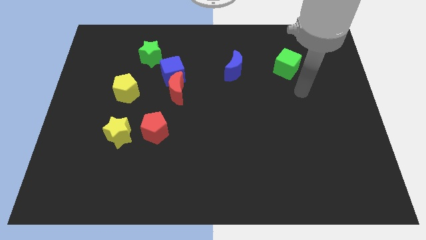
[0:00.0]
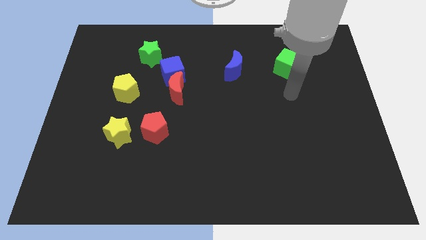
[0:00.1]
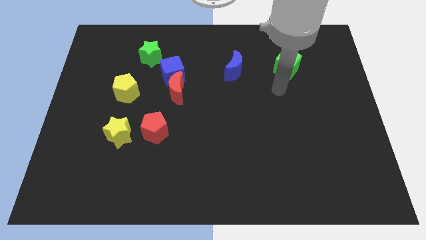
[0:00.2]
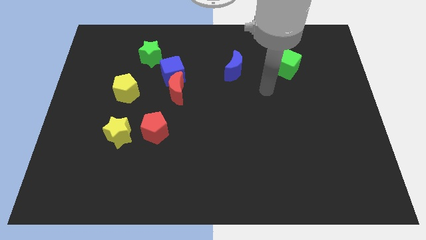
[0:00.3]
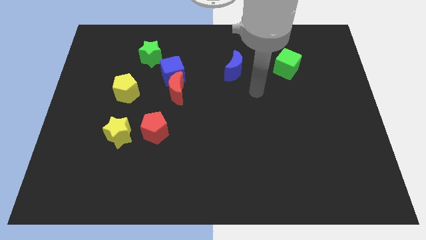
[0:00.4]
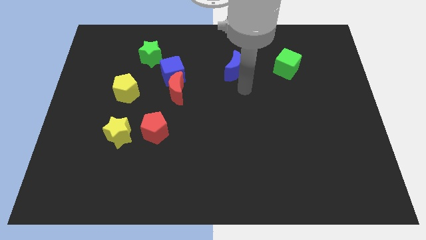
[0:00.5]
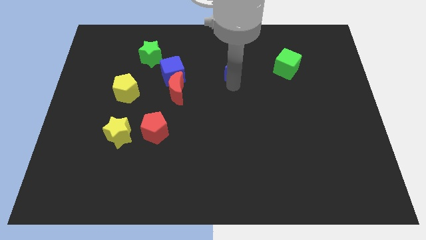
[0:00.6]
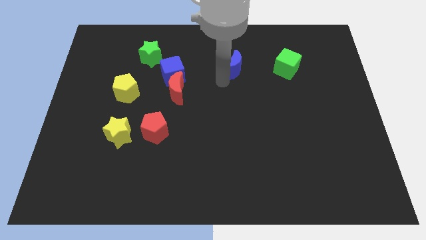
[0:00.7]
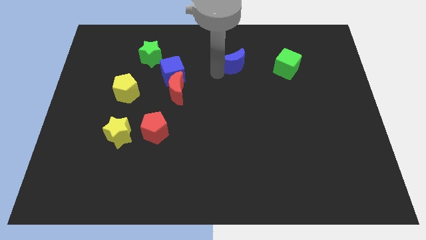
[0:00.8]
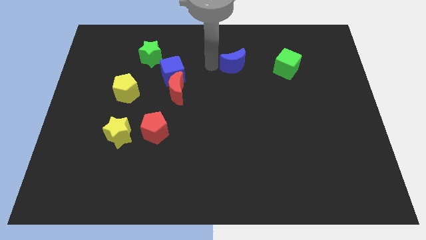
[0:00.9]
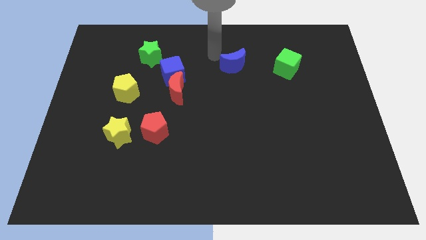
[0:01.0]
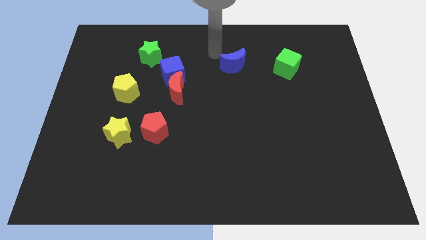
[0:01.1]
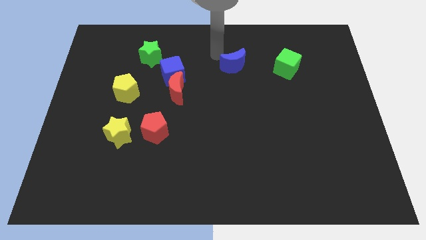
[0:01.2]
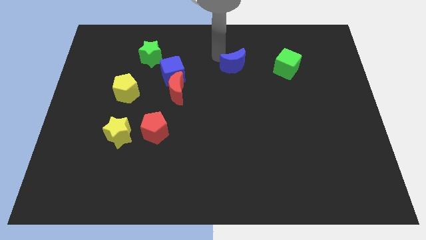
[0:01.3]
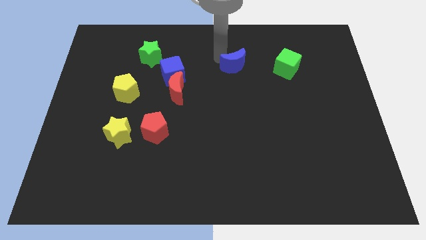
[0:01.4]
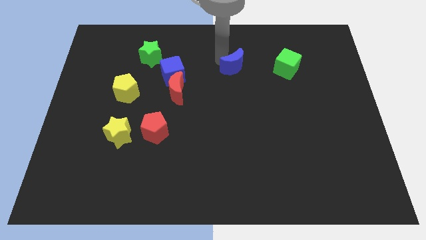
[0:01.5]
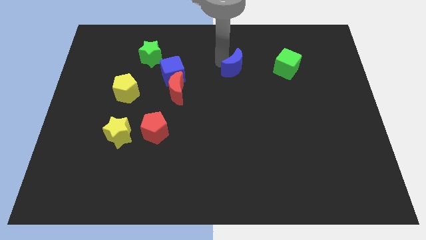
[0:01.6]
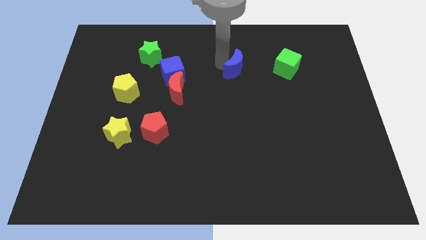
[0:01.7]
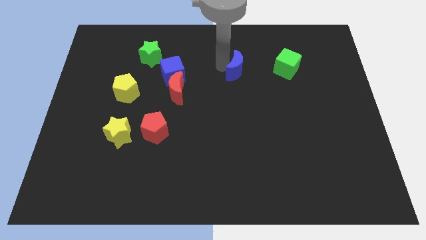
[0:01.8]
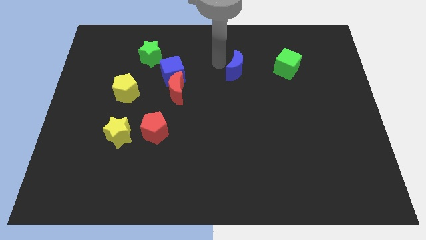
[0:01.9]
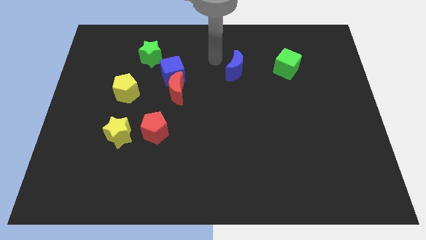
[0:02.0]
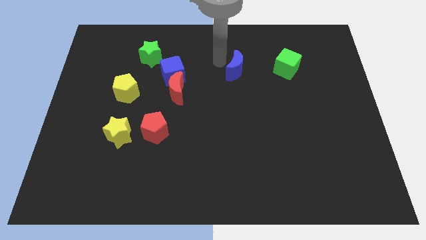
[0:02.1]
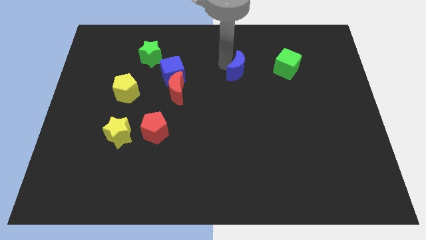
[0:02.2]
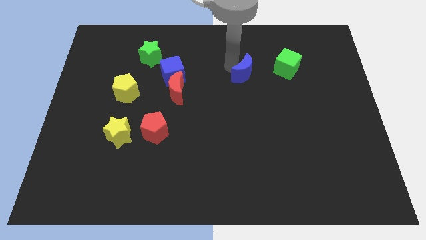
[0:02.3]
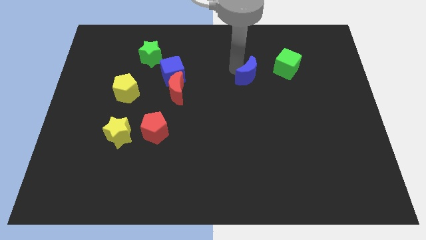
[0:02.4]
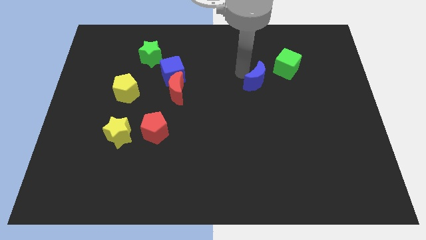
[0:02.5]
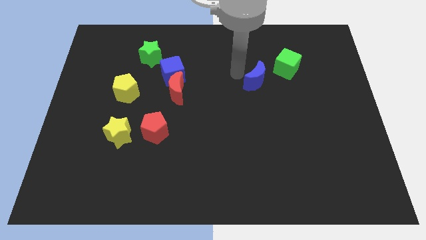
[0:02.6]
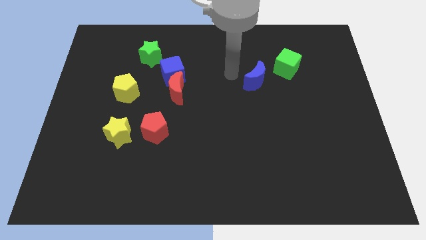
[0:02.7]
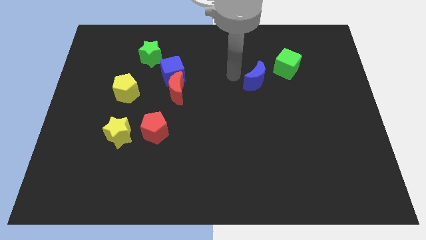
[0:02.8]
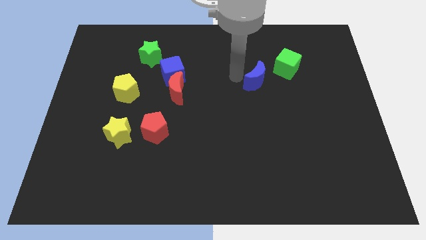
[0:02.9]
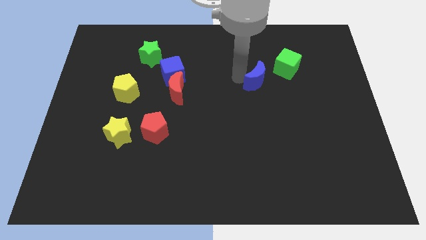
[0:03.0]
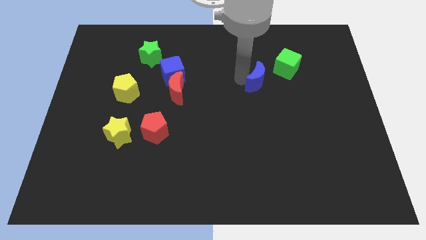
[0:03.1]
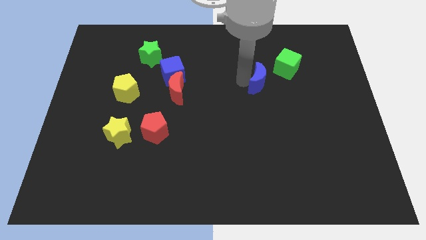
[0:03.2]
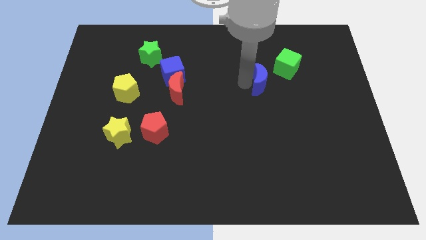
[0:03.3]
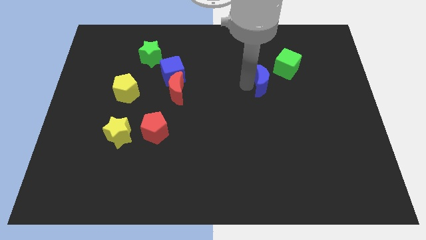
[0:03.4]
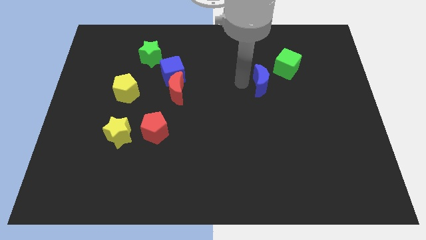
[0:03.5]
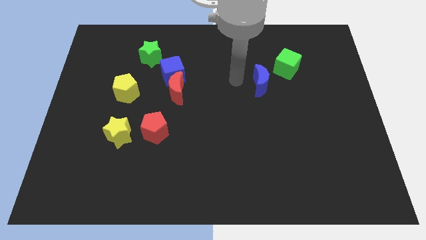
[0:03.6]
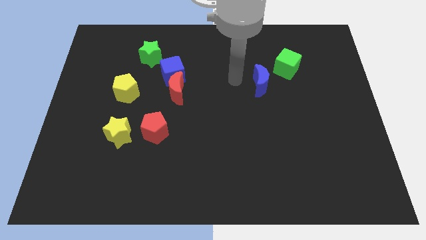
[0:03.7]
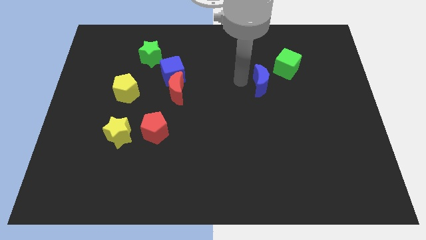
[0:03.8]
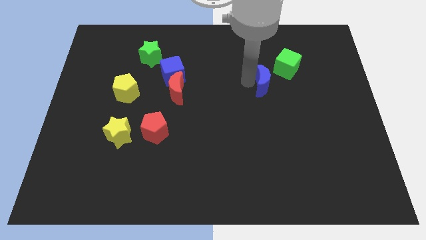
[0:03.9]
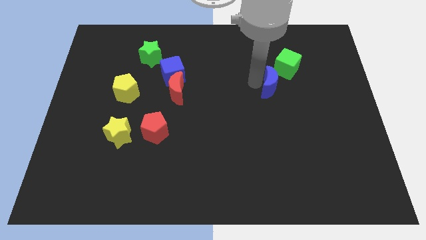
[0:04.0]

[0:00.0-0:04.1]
move the blue moon slightly to the right

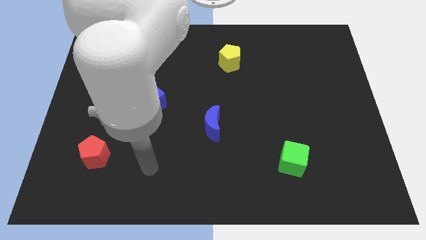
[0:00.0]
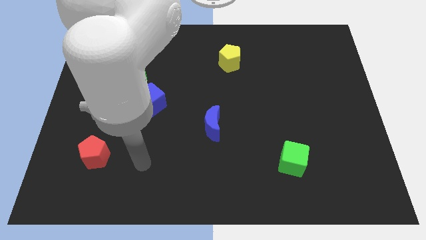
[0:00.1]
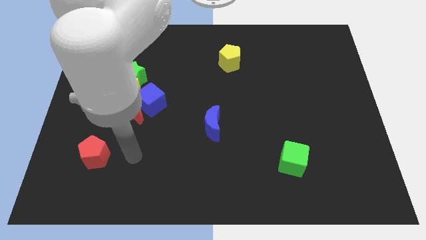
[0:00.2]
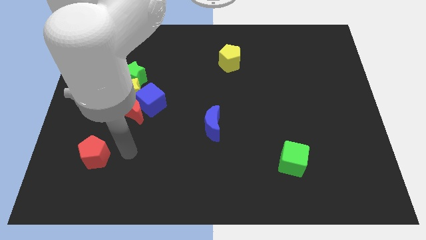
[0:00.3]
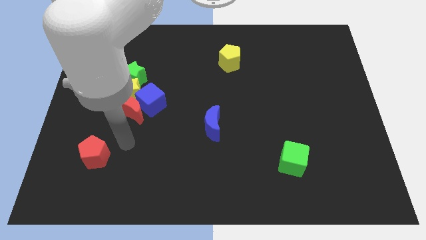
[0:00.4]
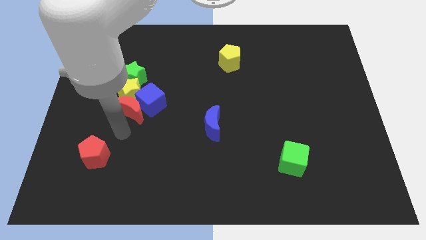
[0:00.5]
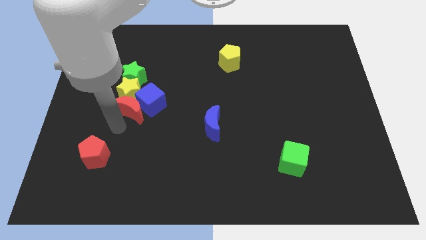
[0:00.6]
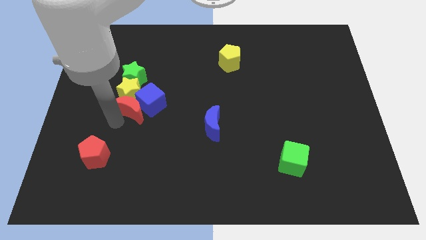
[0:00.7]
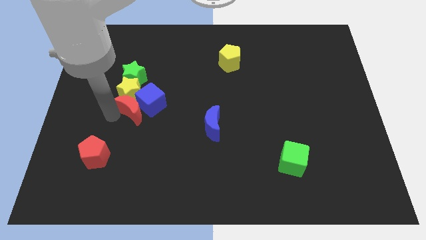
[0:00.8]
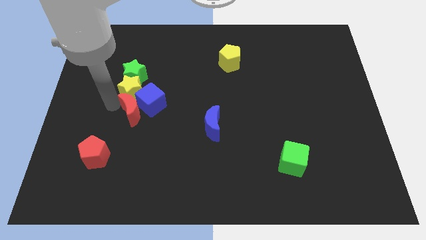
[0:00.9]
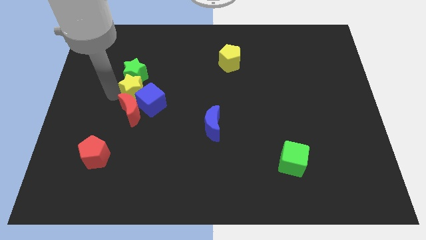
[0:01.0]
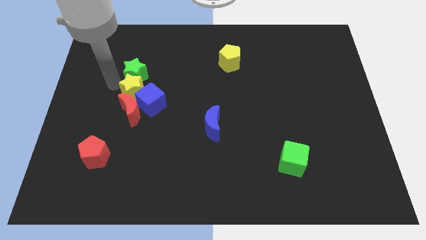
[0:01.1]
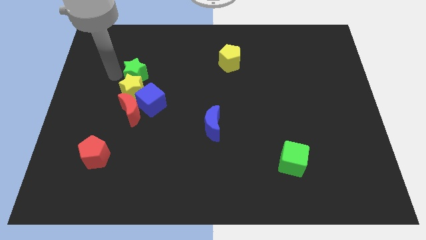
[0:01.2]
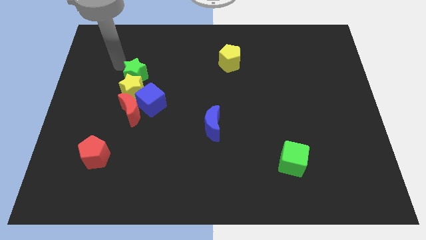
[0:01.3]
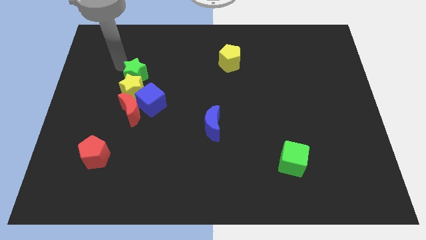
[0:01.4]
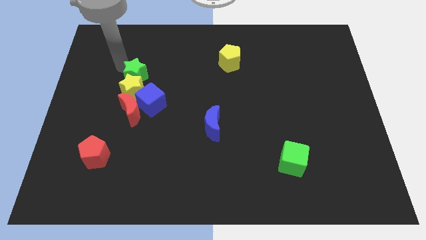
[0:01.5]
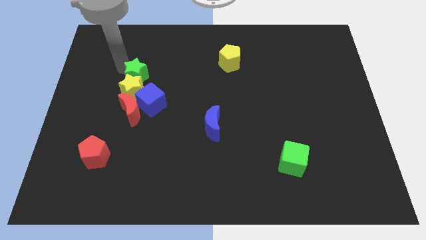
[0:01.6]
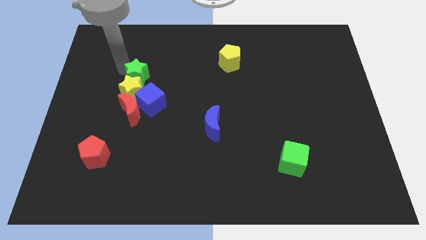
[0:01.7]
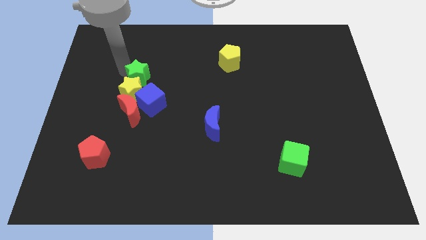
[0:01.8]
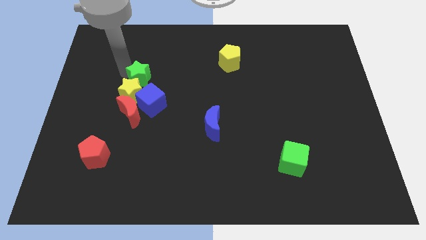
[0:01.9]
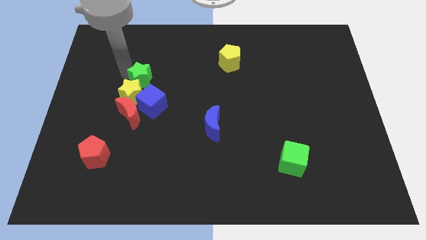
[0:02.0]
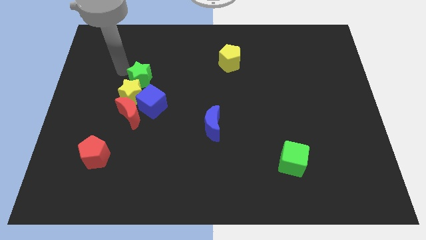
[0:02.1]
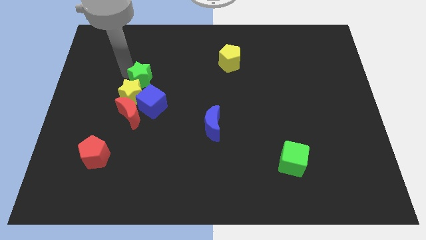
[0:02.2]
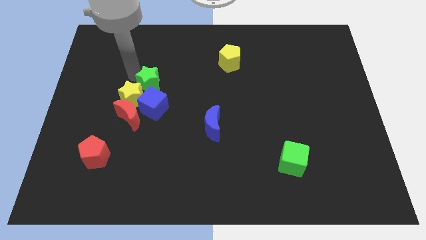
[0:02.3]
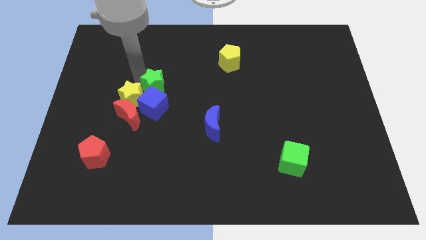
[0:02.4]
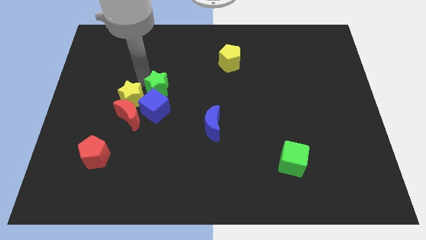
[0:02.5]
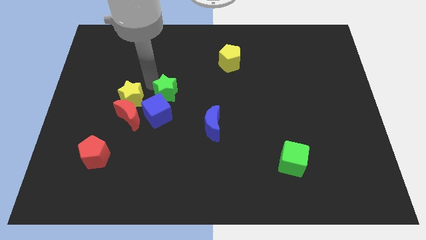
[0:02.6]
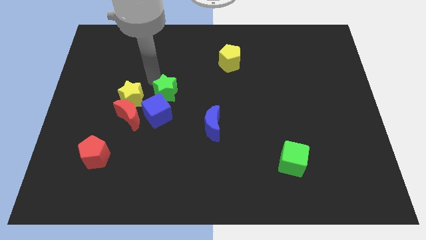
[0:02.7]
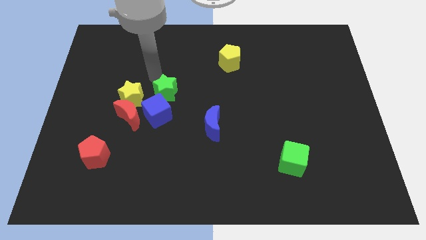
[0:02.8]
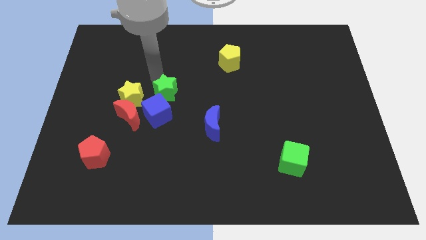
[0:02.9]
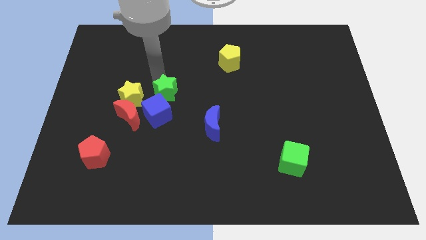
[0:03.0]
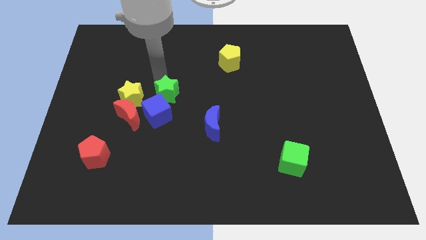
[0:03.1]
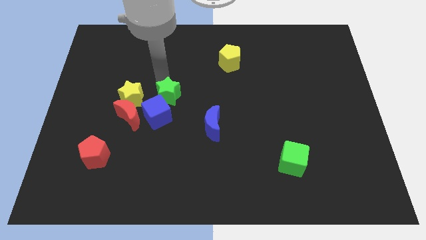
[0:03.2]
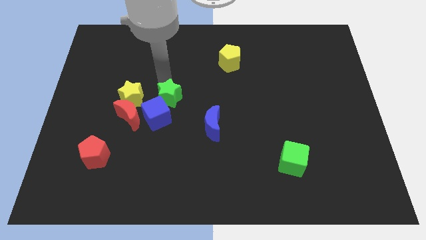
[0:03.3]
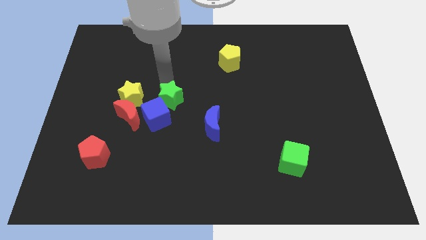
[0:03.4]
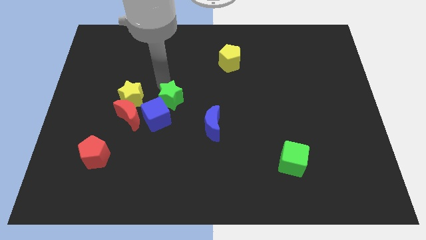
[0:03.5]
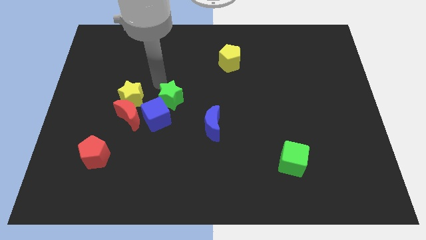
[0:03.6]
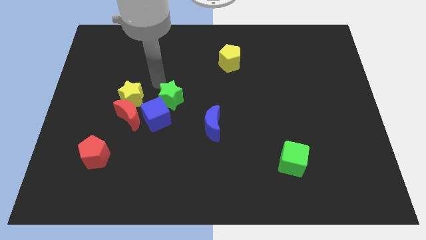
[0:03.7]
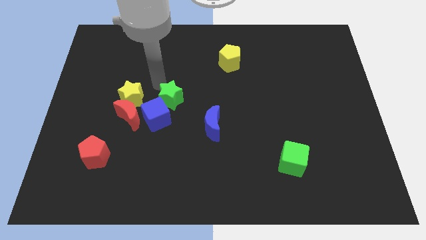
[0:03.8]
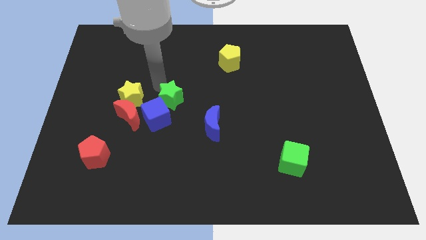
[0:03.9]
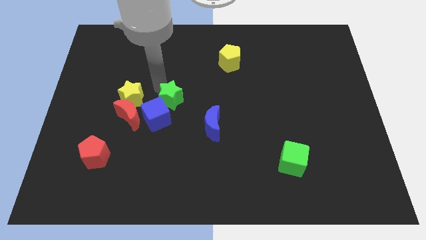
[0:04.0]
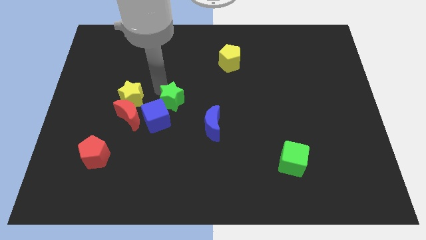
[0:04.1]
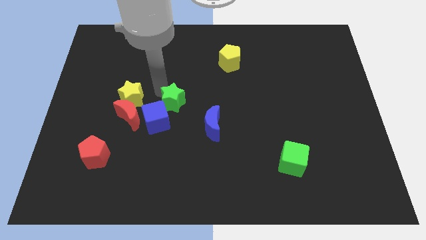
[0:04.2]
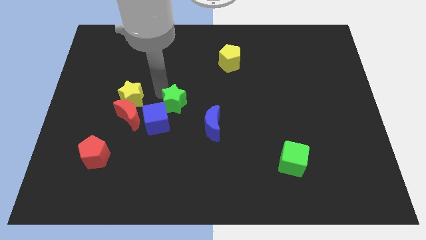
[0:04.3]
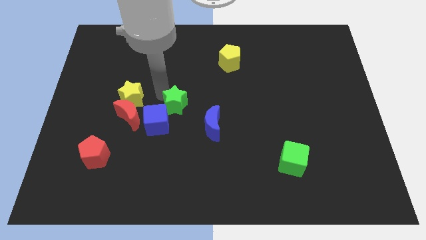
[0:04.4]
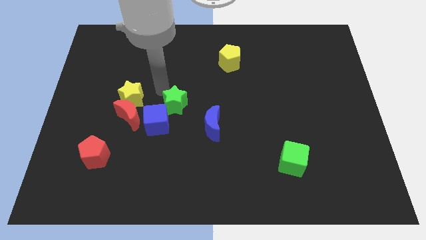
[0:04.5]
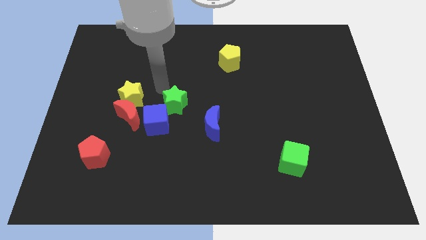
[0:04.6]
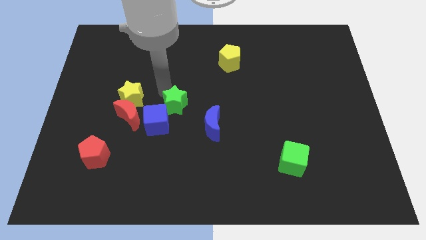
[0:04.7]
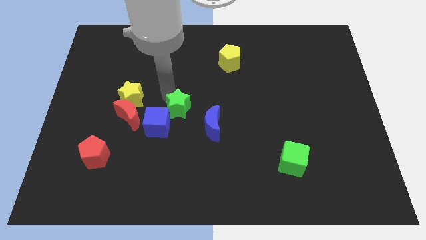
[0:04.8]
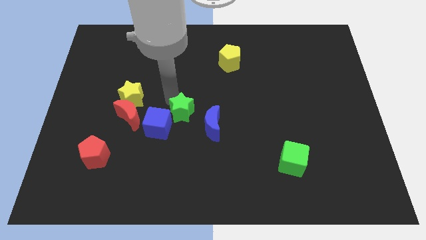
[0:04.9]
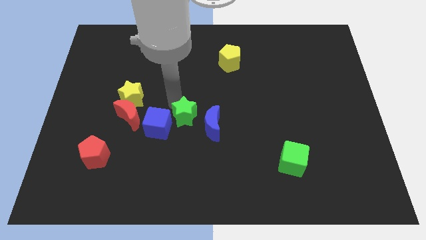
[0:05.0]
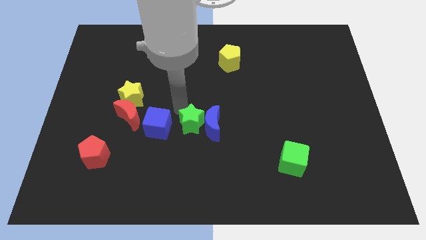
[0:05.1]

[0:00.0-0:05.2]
slide the green star diagonally down and to the right
